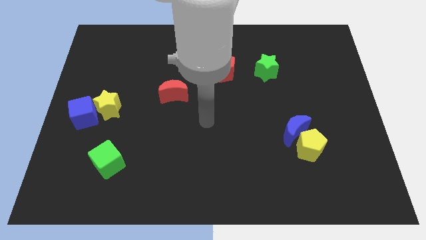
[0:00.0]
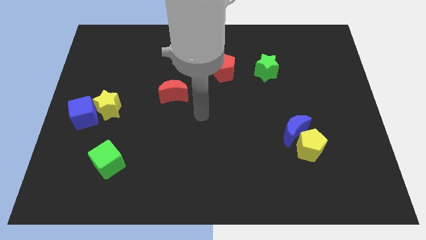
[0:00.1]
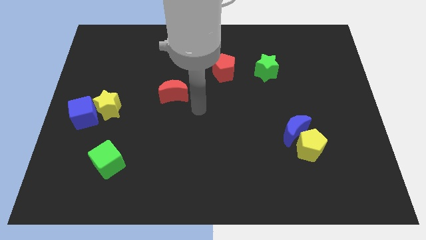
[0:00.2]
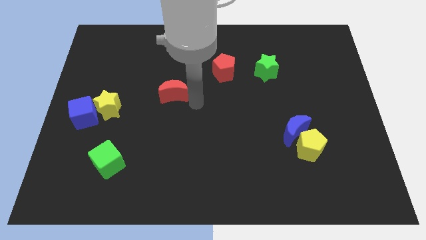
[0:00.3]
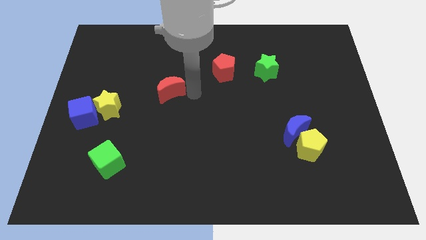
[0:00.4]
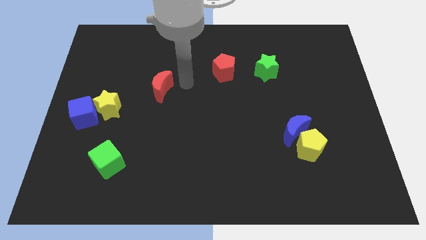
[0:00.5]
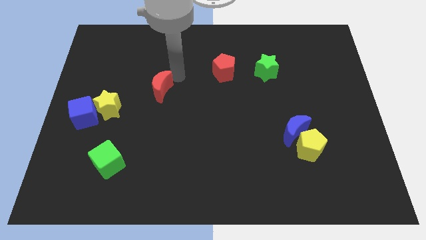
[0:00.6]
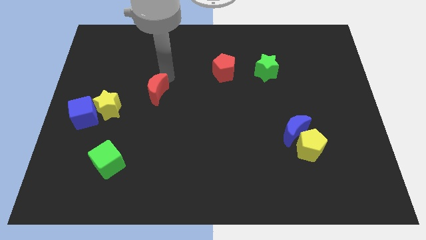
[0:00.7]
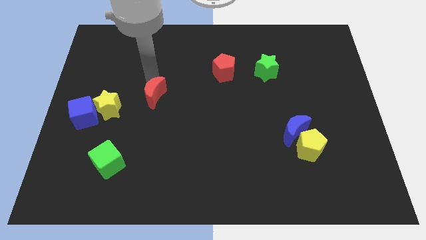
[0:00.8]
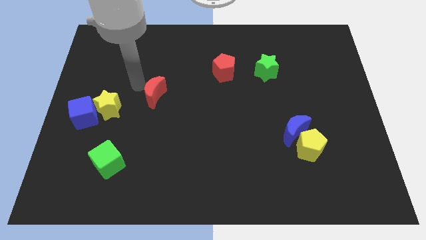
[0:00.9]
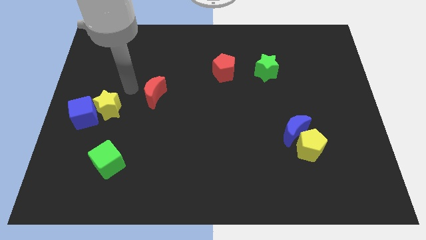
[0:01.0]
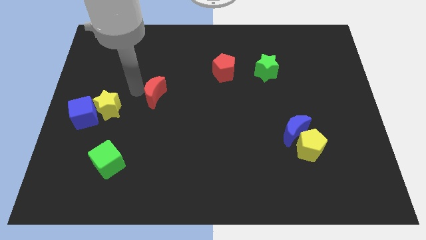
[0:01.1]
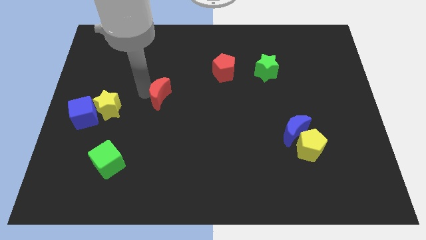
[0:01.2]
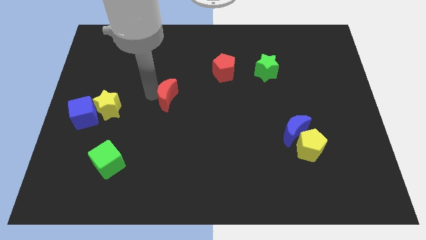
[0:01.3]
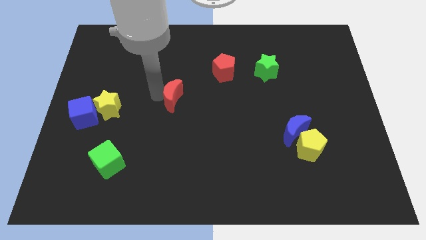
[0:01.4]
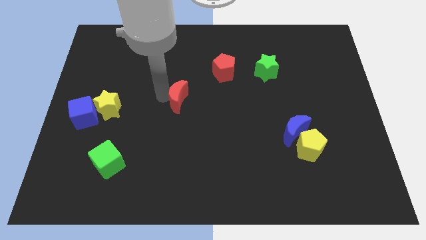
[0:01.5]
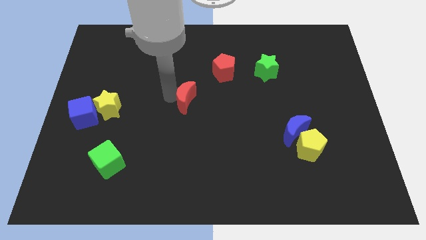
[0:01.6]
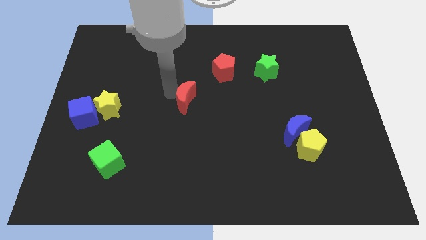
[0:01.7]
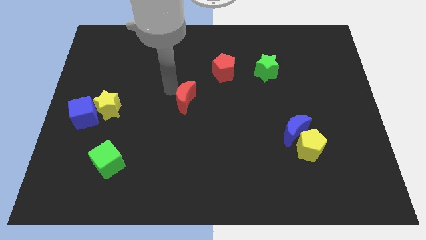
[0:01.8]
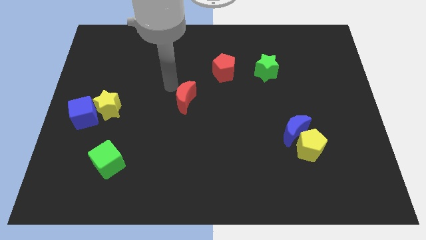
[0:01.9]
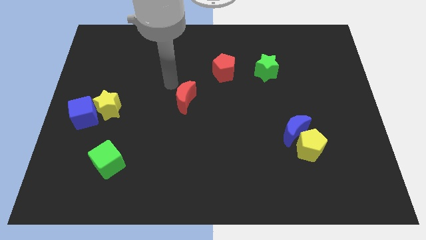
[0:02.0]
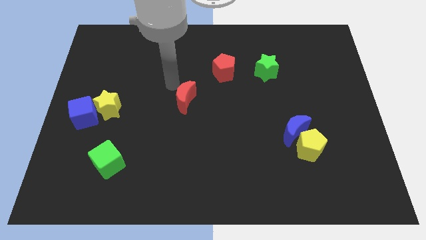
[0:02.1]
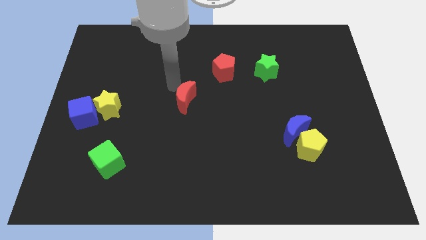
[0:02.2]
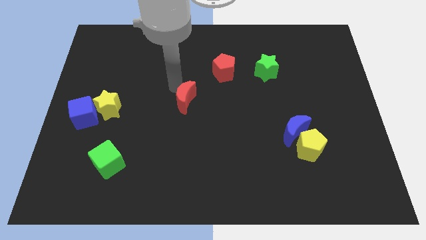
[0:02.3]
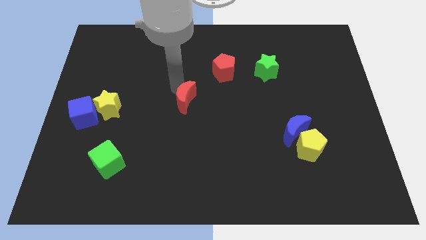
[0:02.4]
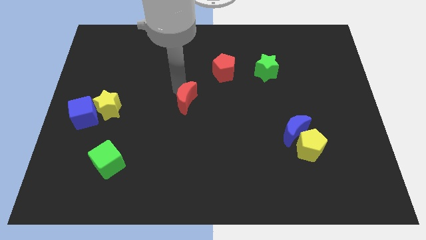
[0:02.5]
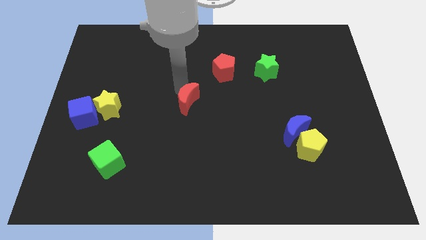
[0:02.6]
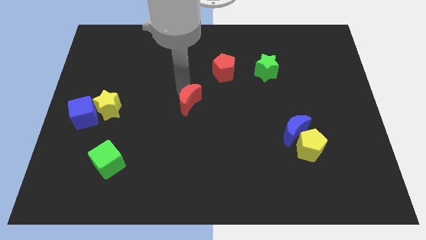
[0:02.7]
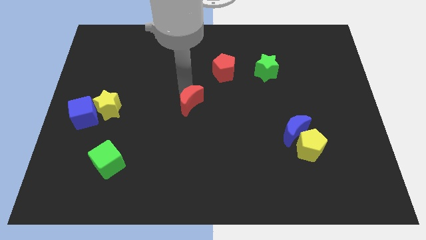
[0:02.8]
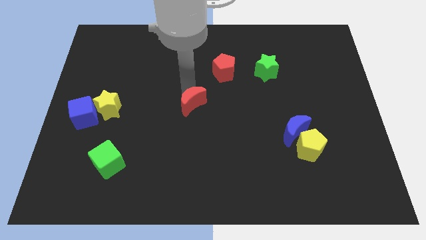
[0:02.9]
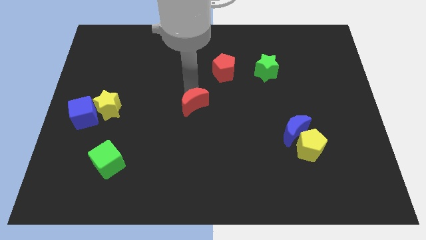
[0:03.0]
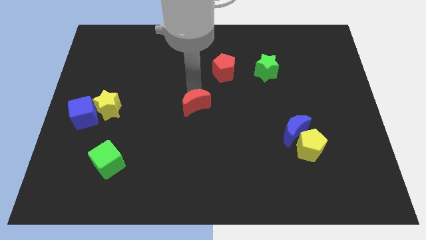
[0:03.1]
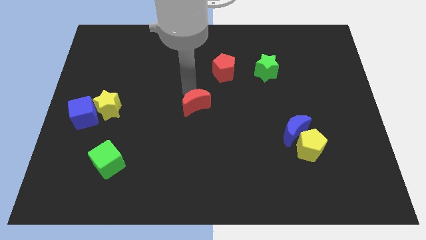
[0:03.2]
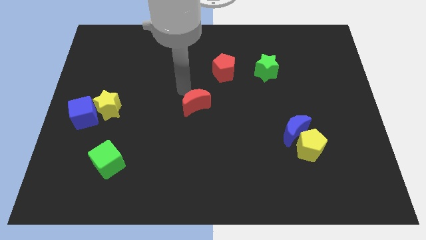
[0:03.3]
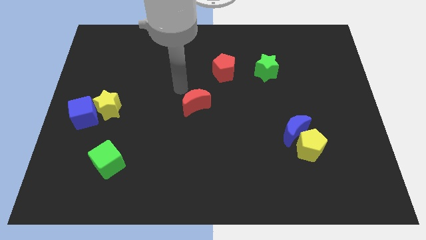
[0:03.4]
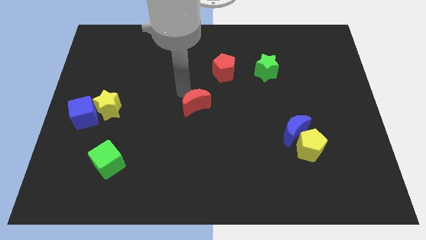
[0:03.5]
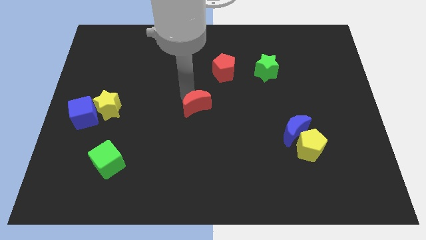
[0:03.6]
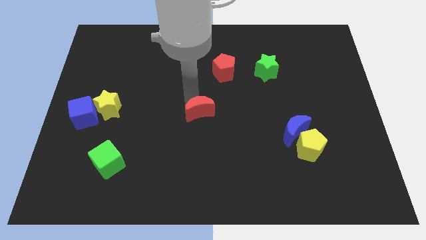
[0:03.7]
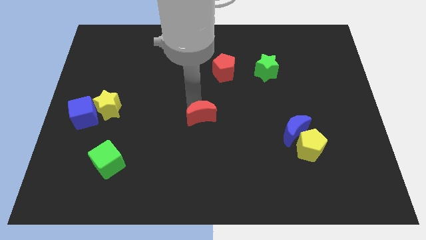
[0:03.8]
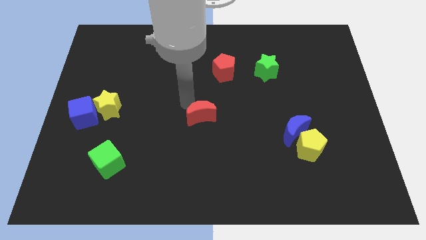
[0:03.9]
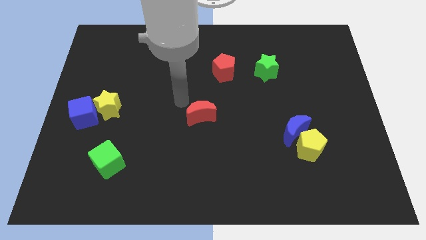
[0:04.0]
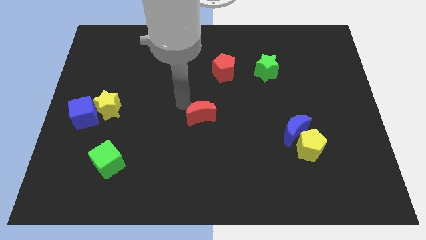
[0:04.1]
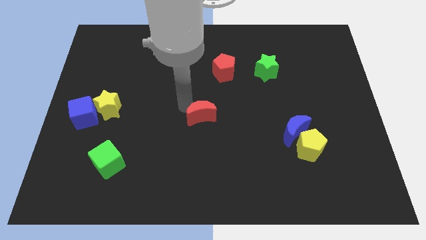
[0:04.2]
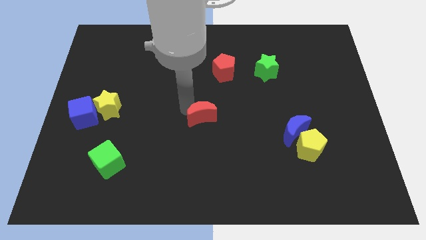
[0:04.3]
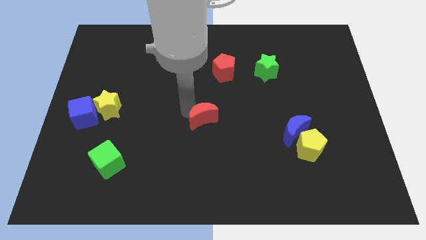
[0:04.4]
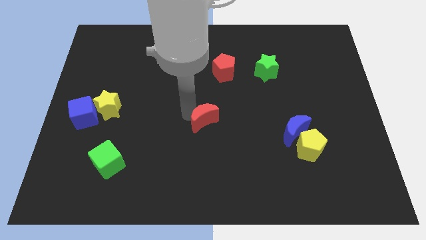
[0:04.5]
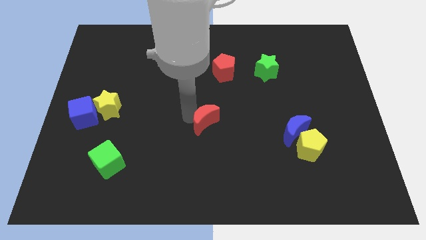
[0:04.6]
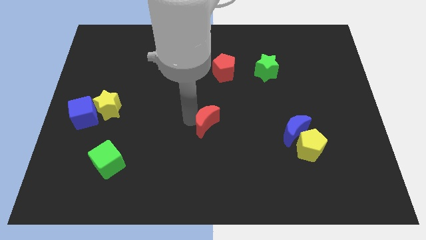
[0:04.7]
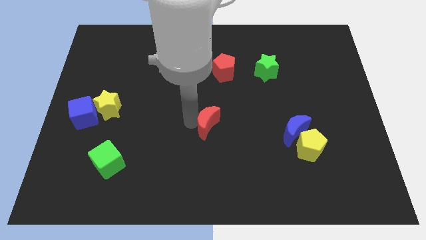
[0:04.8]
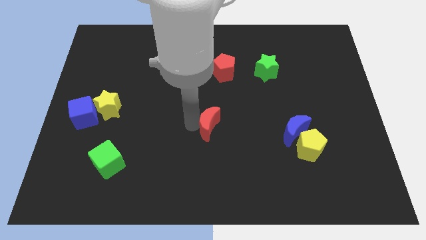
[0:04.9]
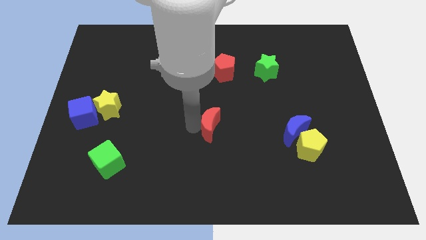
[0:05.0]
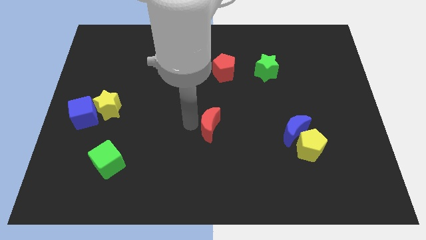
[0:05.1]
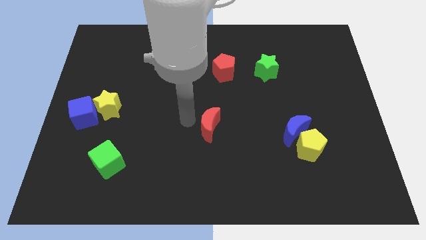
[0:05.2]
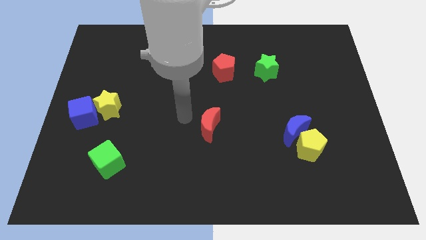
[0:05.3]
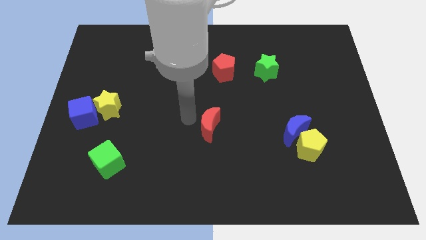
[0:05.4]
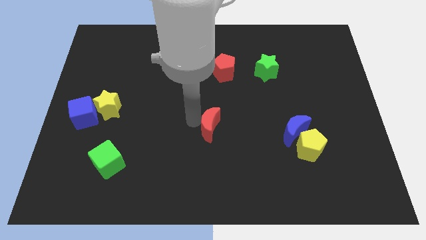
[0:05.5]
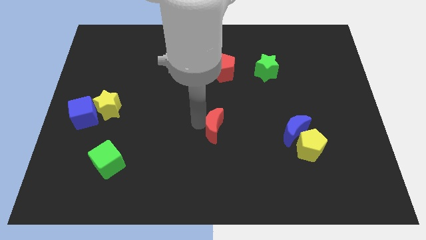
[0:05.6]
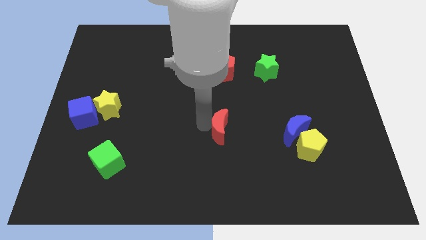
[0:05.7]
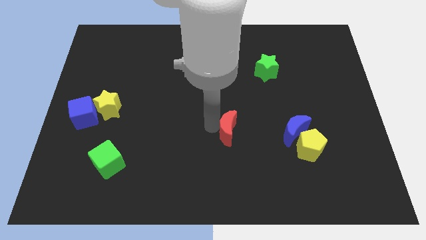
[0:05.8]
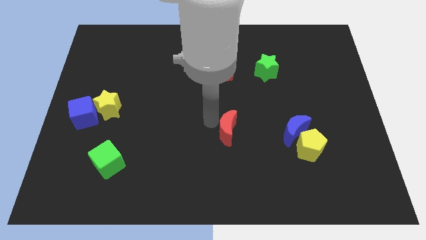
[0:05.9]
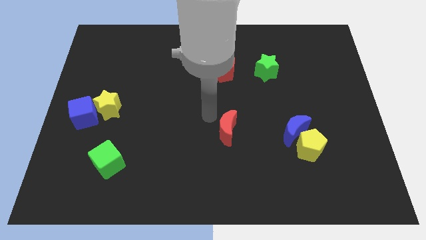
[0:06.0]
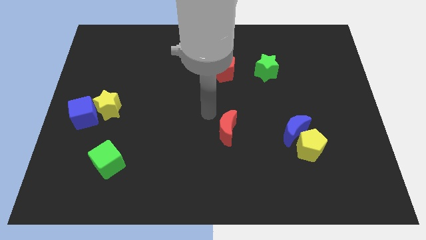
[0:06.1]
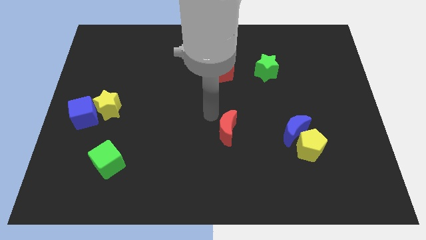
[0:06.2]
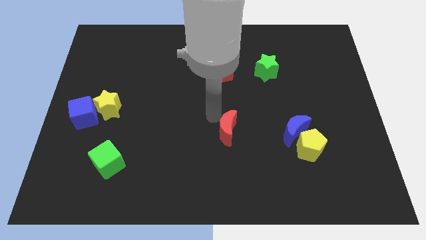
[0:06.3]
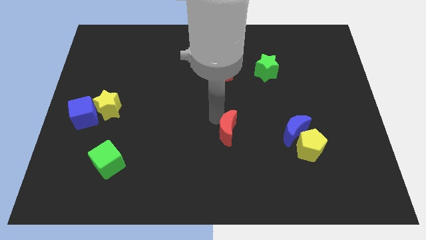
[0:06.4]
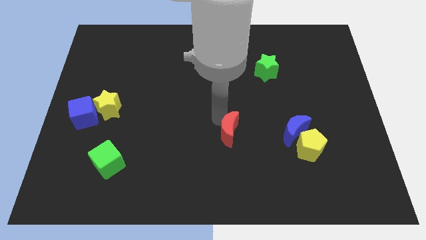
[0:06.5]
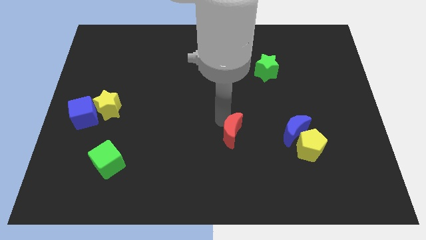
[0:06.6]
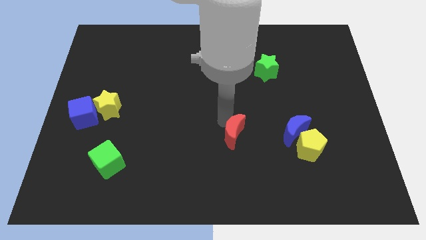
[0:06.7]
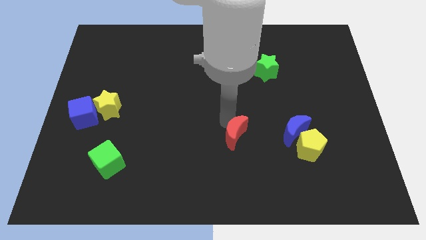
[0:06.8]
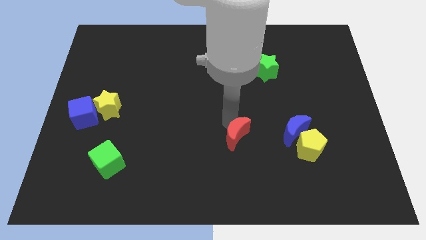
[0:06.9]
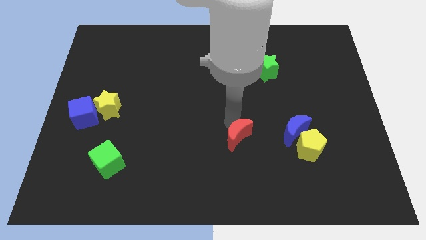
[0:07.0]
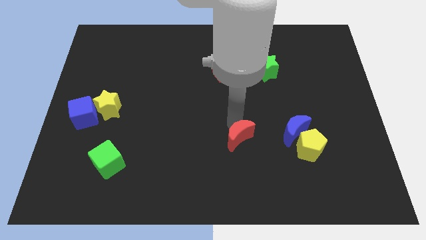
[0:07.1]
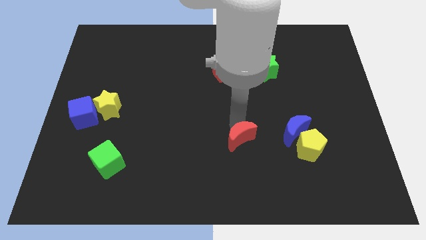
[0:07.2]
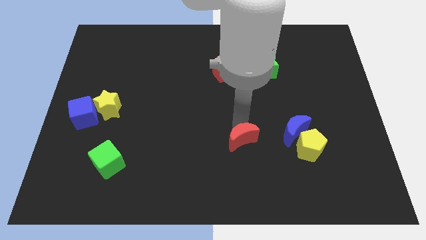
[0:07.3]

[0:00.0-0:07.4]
push the red moon downwards and then to the right

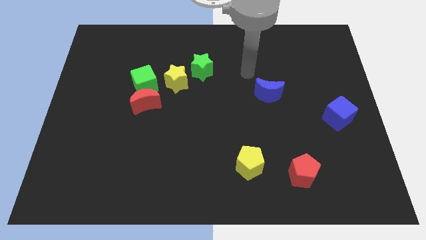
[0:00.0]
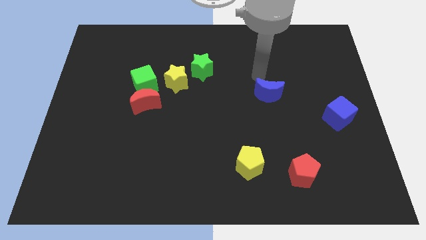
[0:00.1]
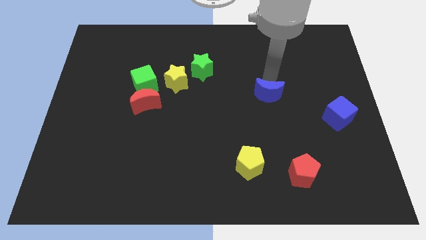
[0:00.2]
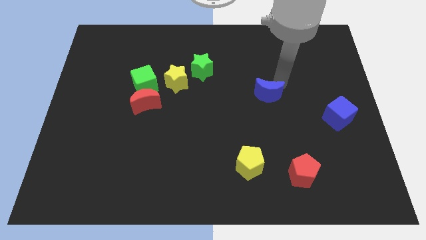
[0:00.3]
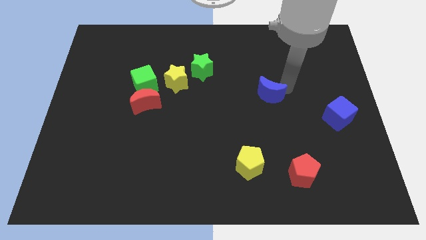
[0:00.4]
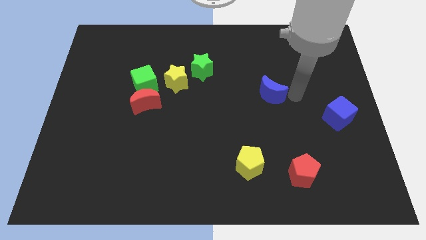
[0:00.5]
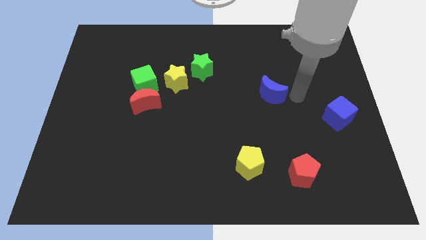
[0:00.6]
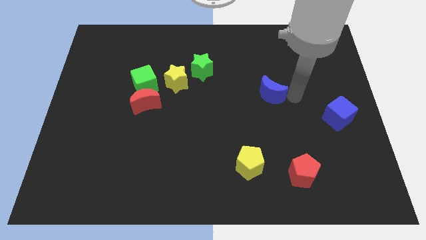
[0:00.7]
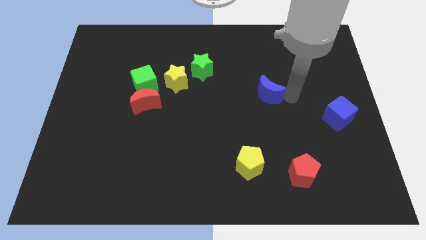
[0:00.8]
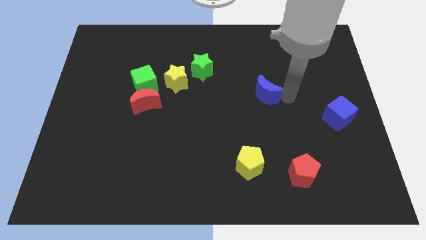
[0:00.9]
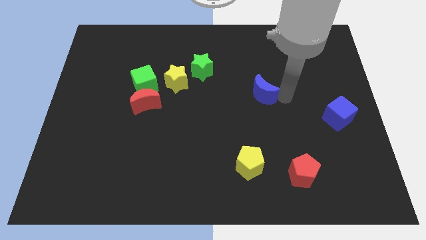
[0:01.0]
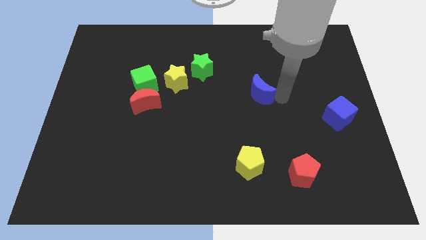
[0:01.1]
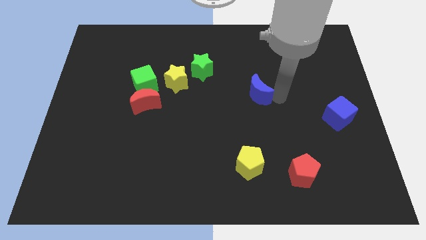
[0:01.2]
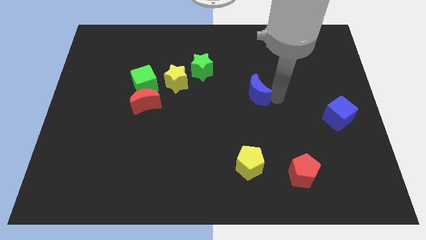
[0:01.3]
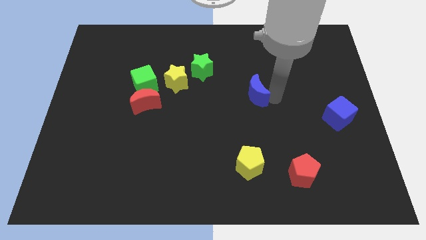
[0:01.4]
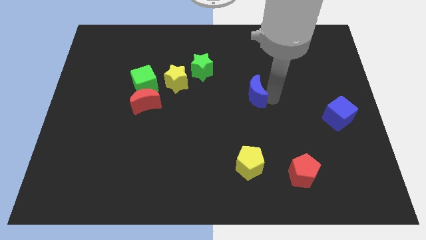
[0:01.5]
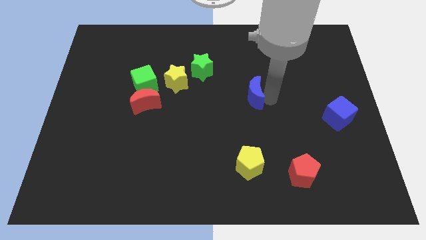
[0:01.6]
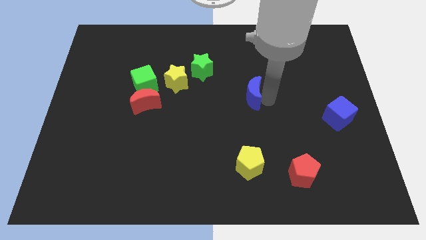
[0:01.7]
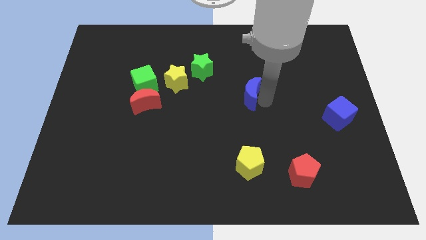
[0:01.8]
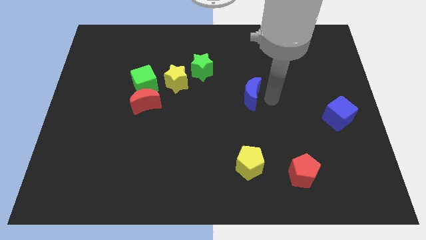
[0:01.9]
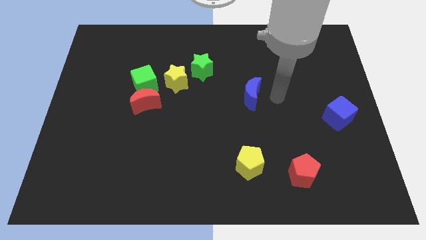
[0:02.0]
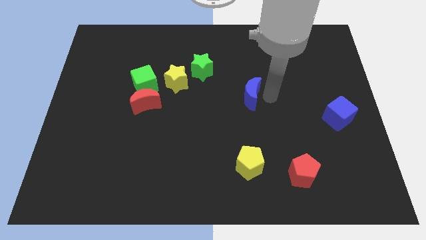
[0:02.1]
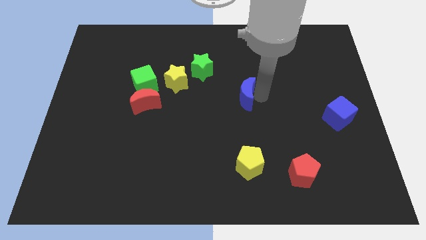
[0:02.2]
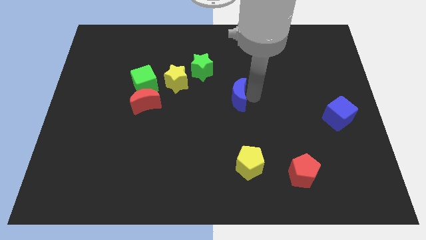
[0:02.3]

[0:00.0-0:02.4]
slightly move the blue moon left
